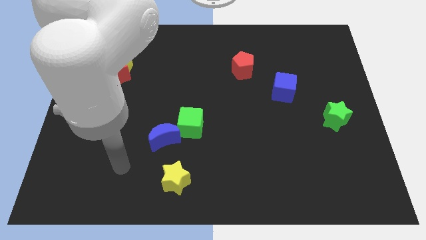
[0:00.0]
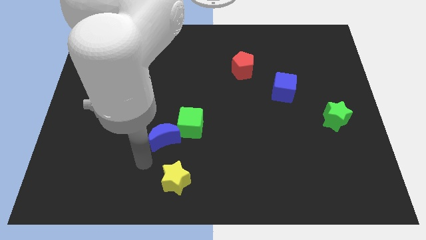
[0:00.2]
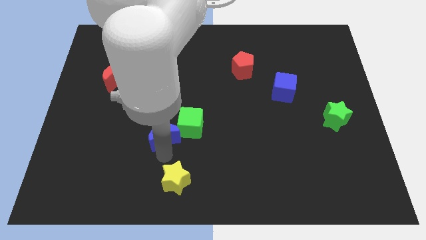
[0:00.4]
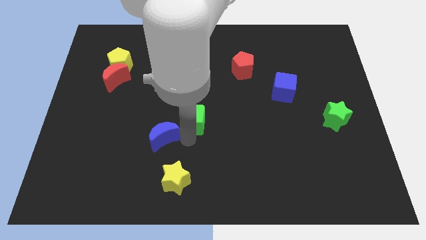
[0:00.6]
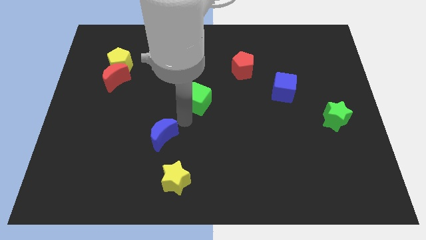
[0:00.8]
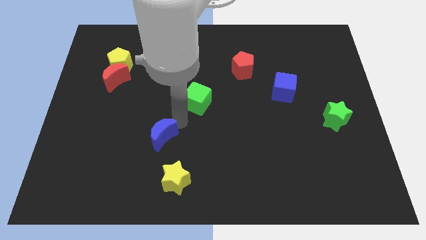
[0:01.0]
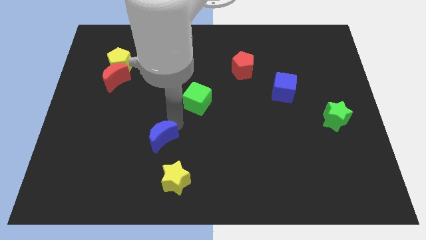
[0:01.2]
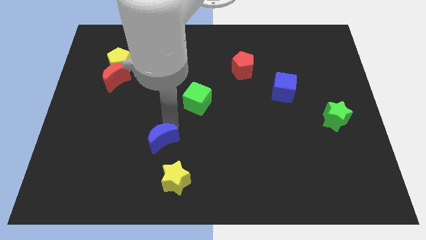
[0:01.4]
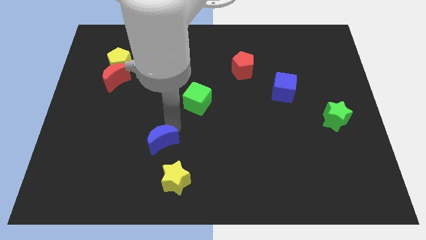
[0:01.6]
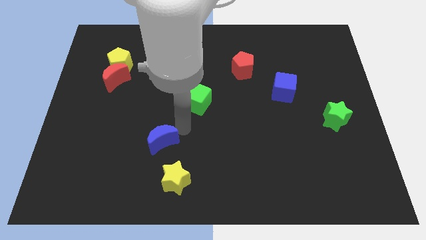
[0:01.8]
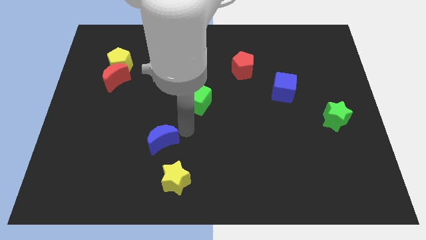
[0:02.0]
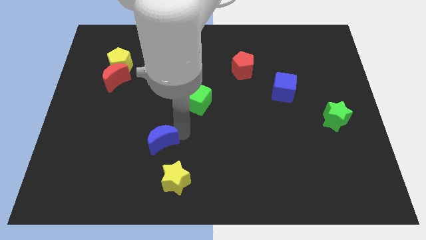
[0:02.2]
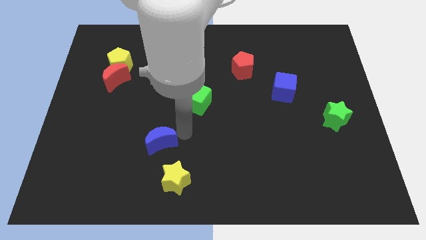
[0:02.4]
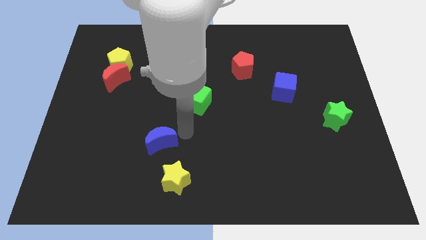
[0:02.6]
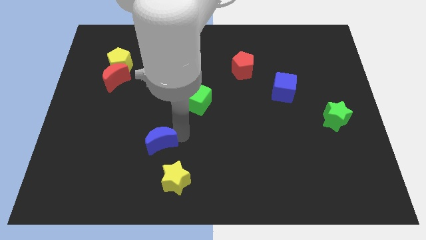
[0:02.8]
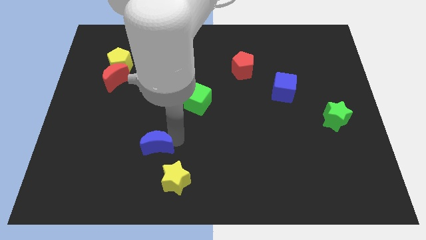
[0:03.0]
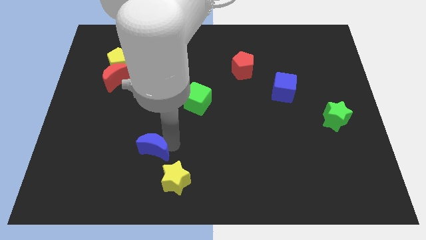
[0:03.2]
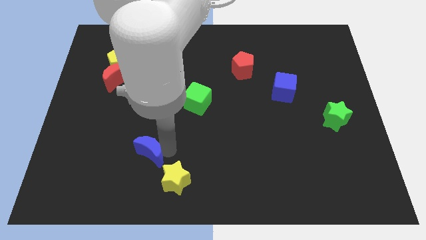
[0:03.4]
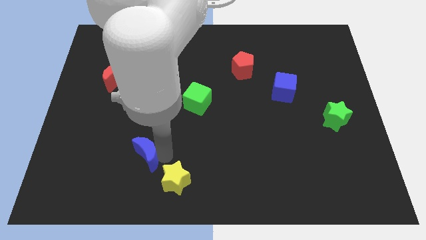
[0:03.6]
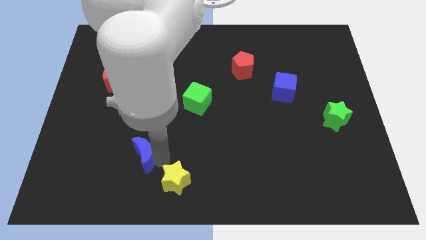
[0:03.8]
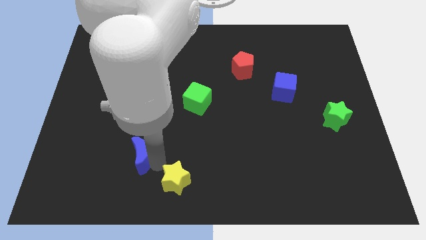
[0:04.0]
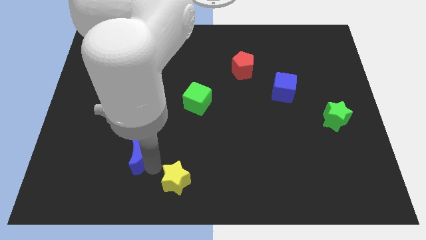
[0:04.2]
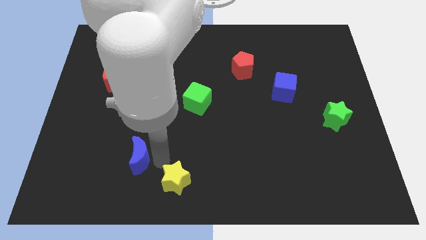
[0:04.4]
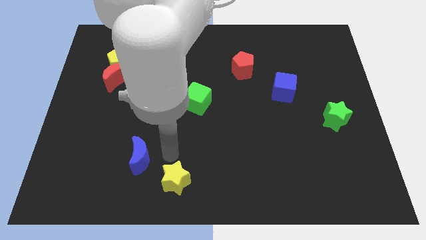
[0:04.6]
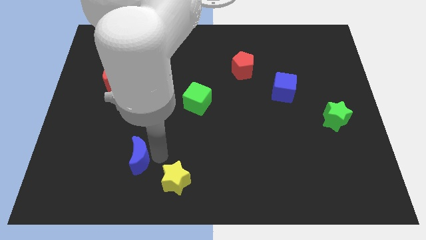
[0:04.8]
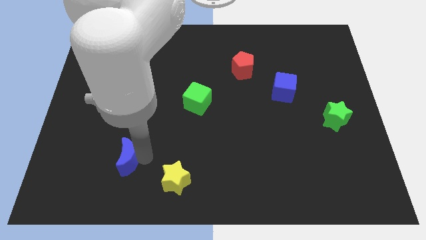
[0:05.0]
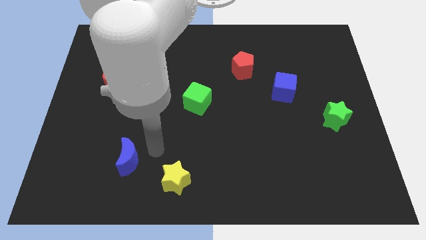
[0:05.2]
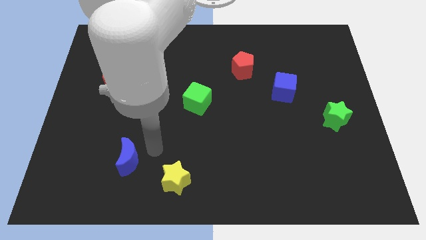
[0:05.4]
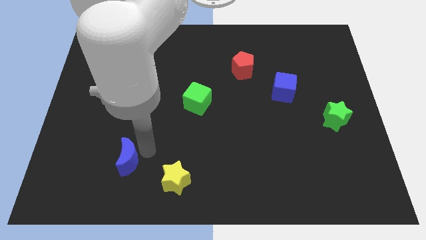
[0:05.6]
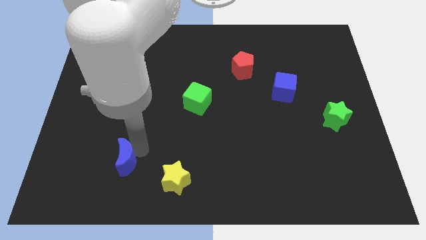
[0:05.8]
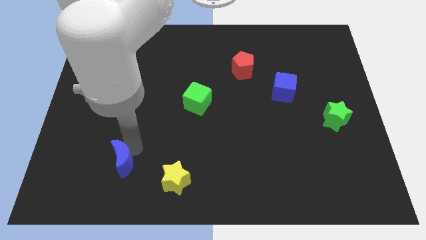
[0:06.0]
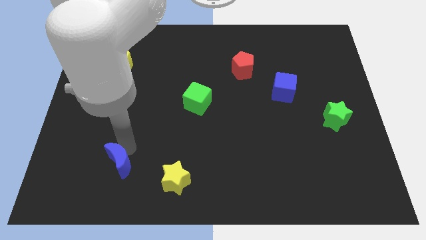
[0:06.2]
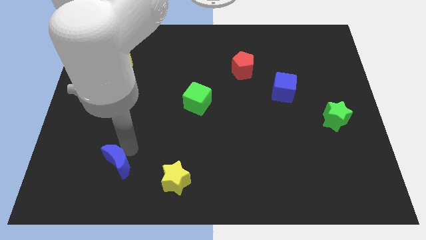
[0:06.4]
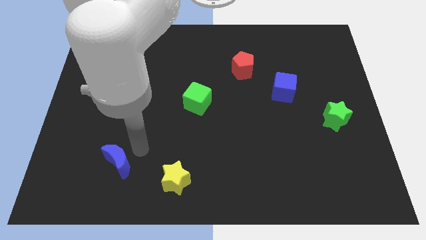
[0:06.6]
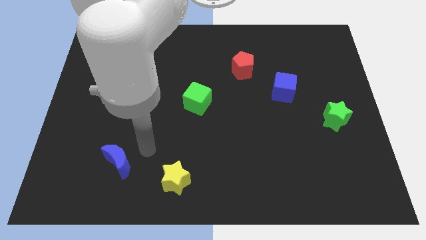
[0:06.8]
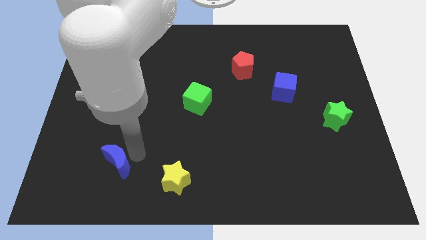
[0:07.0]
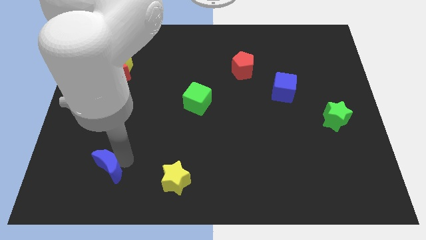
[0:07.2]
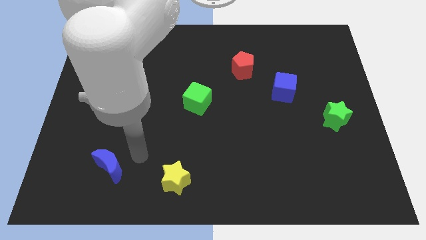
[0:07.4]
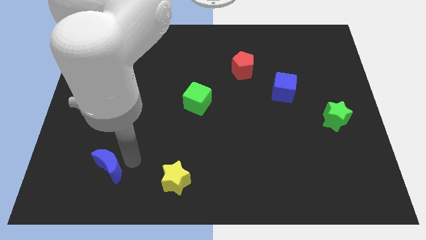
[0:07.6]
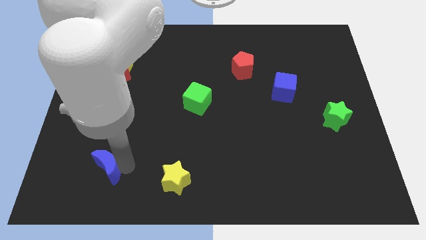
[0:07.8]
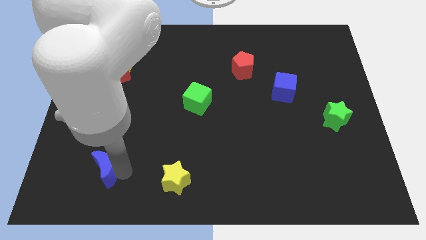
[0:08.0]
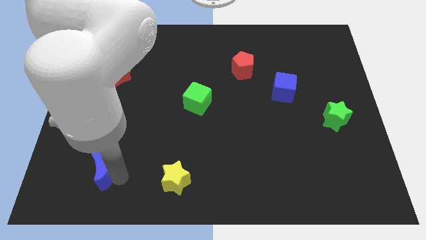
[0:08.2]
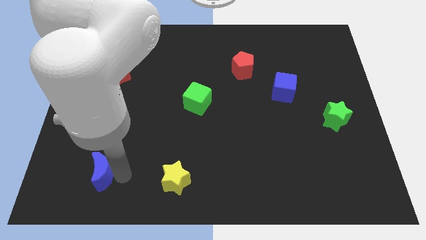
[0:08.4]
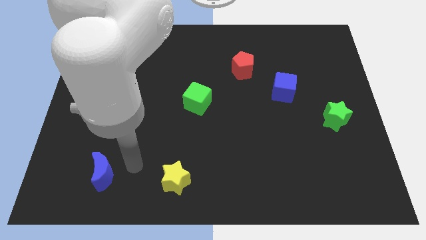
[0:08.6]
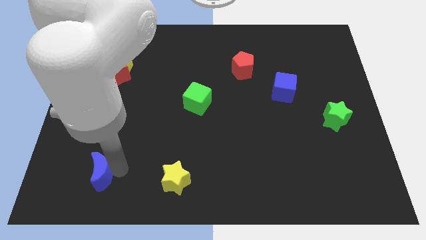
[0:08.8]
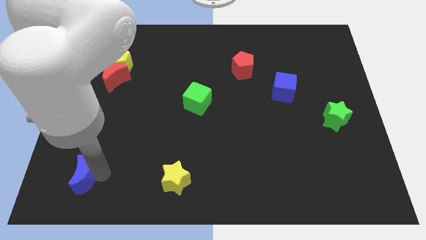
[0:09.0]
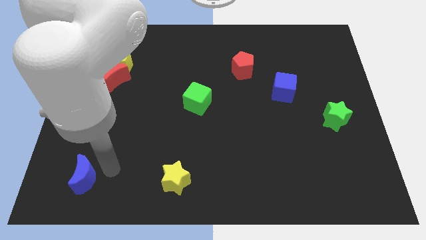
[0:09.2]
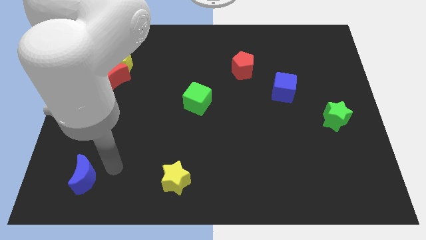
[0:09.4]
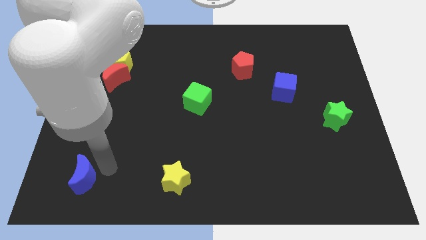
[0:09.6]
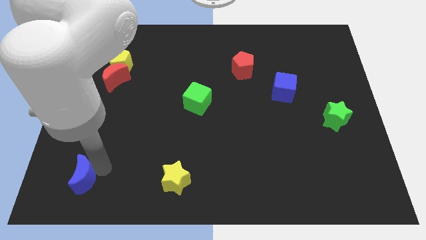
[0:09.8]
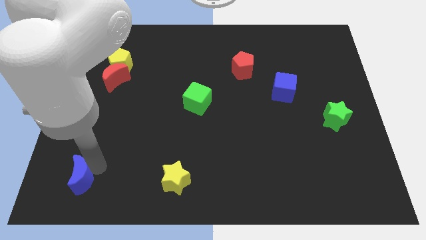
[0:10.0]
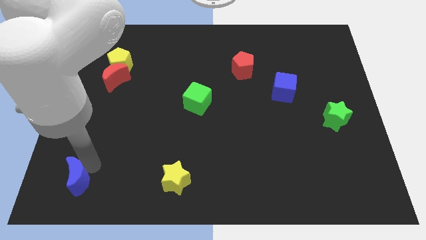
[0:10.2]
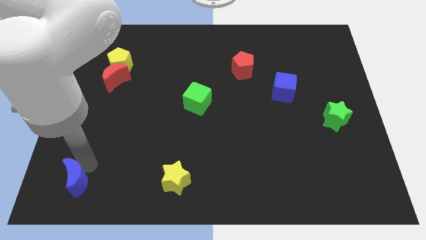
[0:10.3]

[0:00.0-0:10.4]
slide the blue moon to the bottom left corner

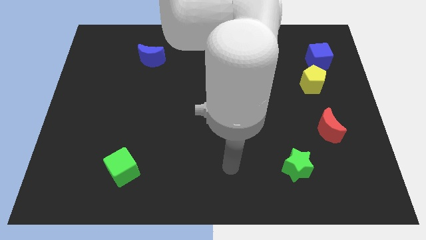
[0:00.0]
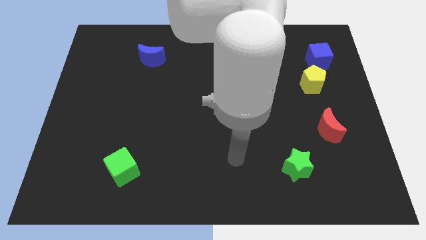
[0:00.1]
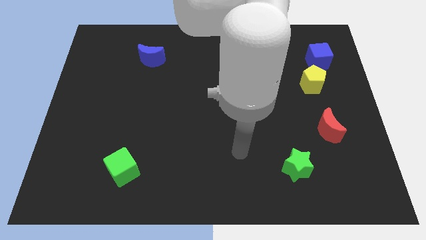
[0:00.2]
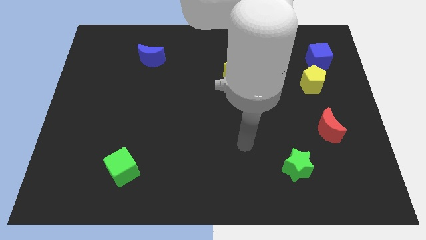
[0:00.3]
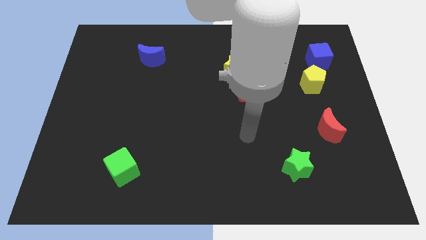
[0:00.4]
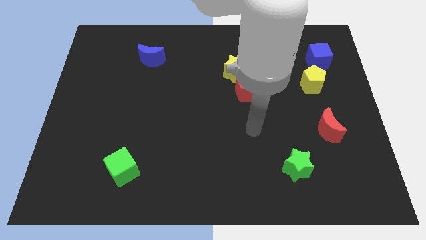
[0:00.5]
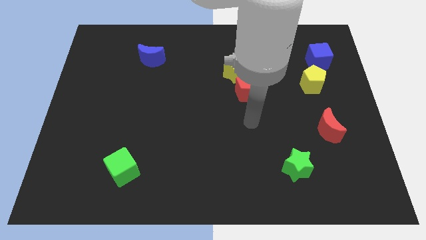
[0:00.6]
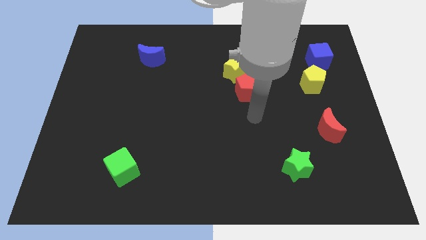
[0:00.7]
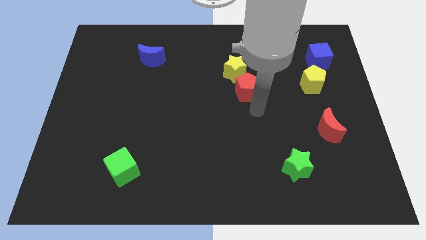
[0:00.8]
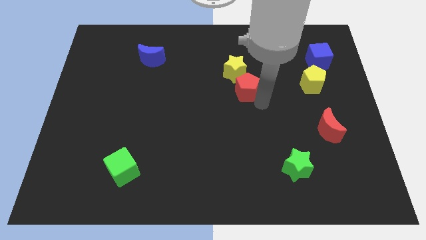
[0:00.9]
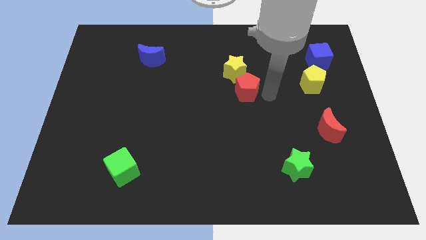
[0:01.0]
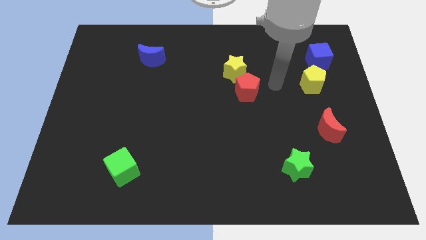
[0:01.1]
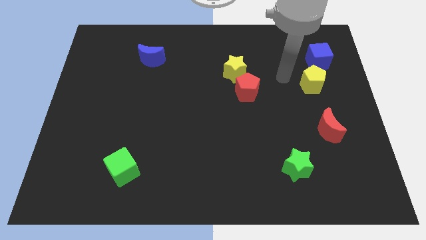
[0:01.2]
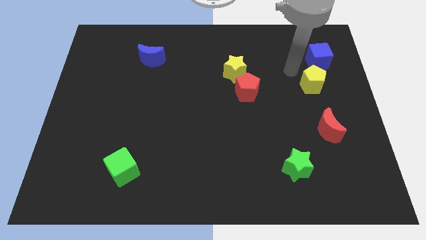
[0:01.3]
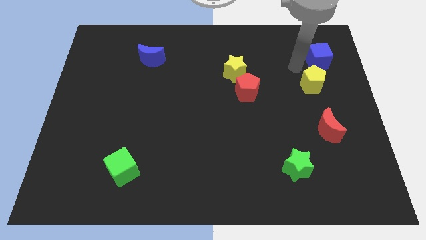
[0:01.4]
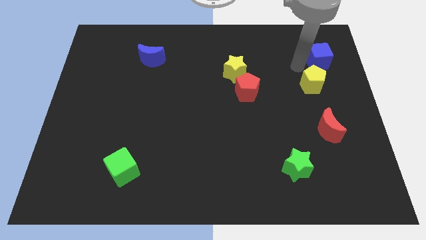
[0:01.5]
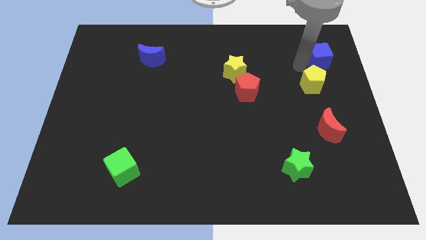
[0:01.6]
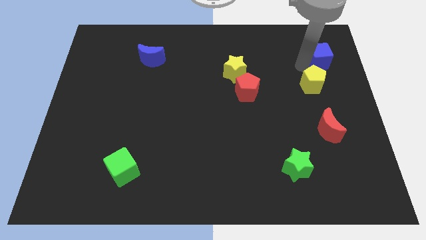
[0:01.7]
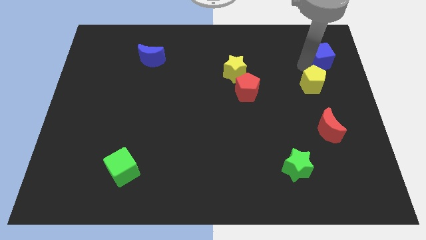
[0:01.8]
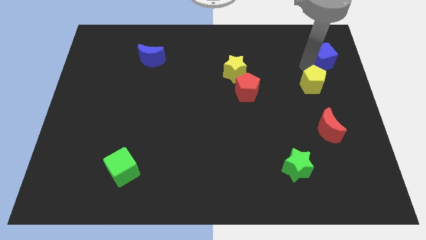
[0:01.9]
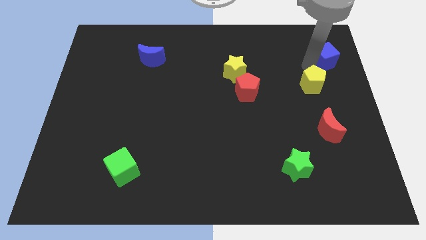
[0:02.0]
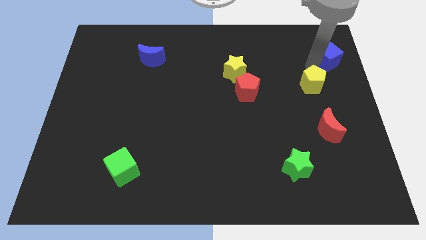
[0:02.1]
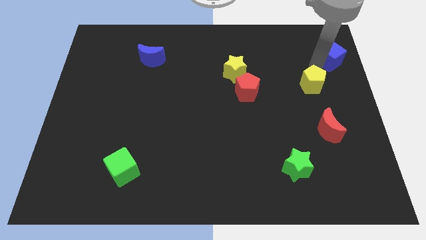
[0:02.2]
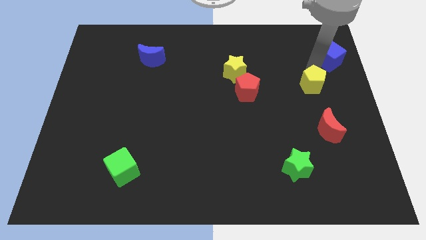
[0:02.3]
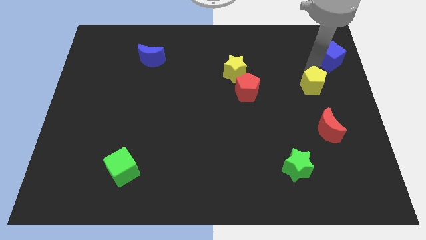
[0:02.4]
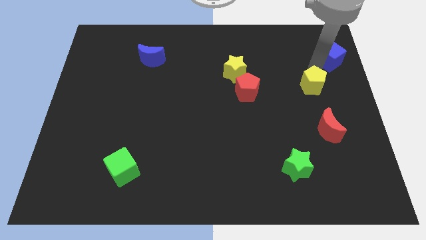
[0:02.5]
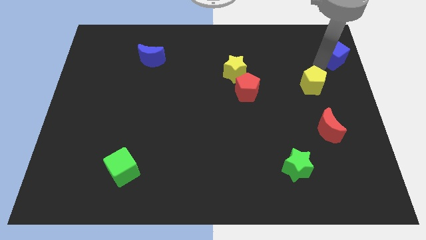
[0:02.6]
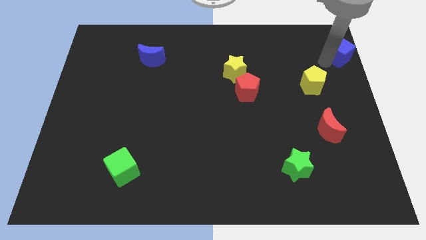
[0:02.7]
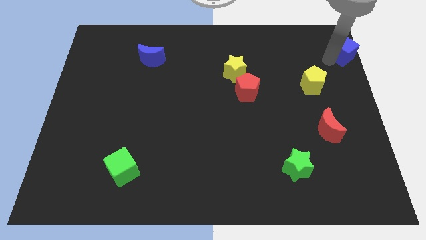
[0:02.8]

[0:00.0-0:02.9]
slide the blue cube to the top right corner
